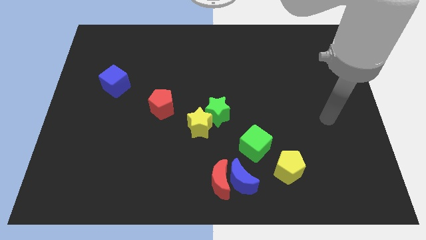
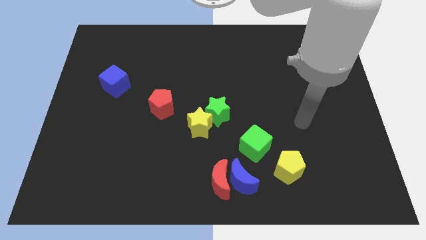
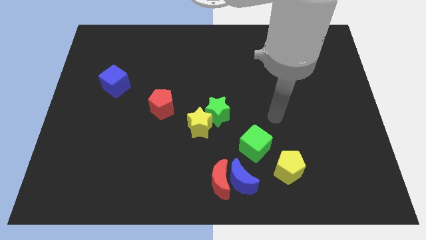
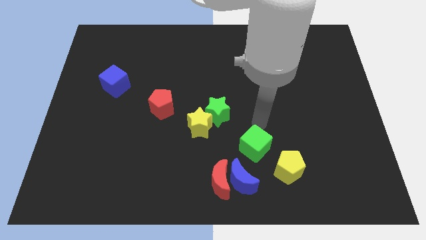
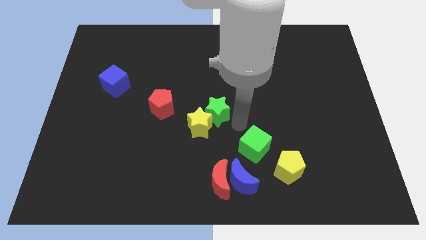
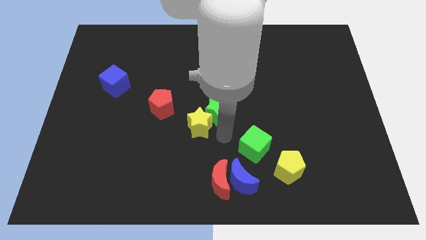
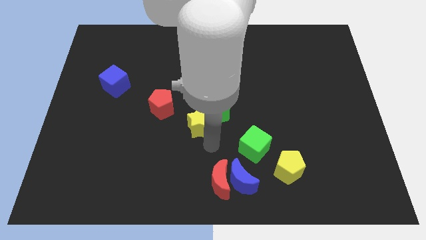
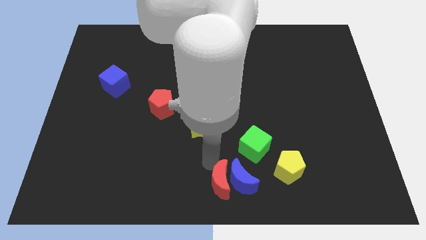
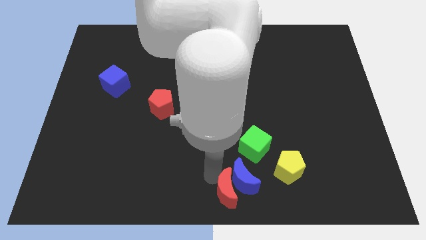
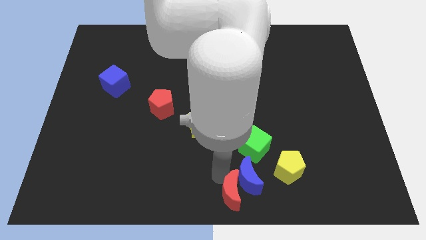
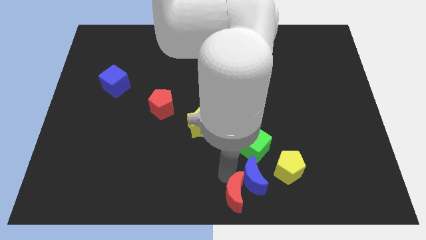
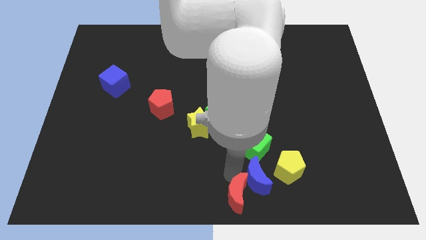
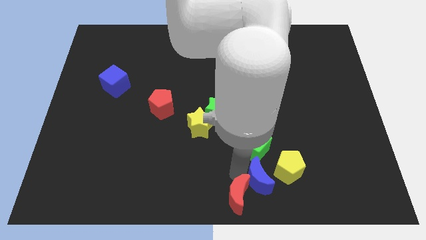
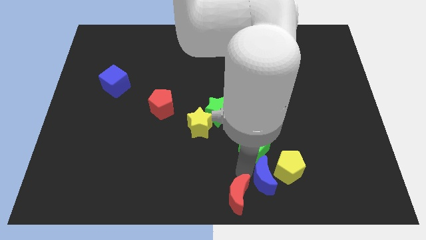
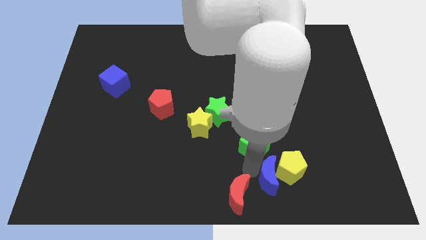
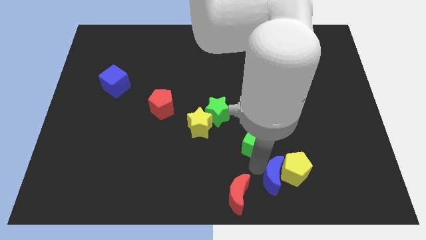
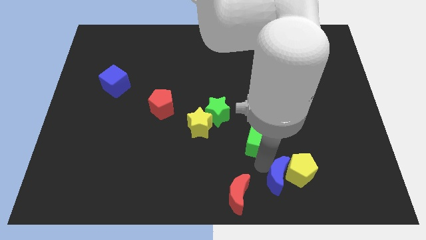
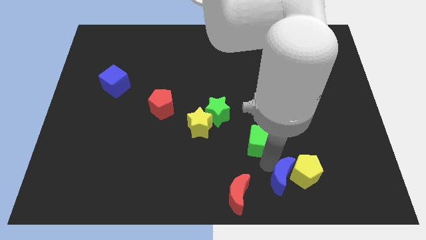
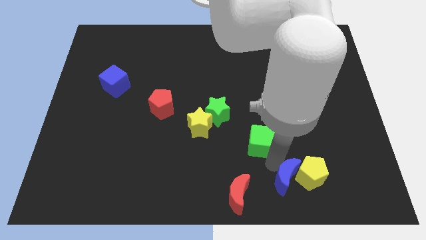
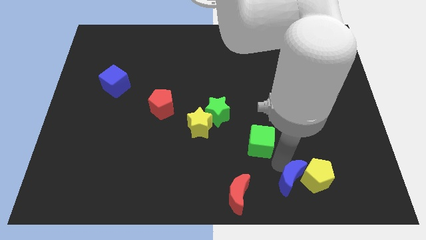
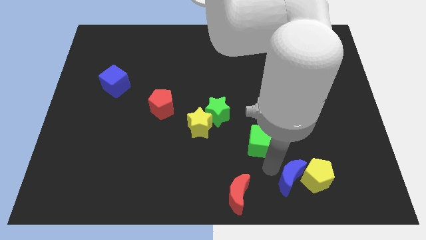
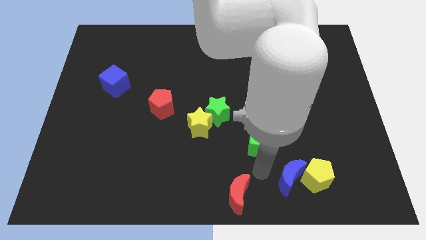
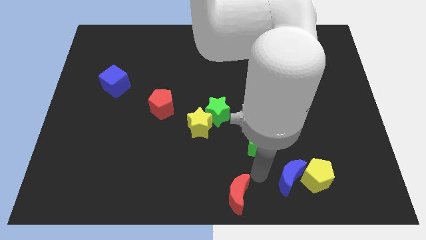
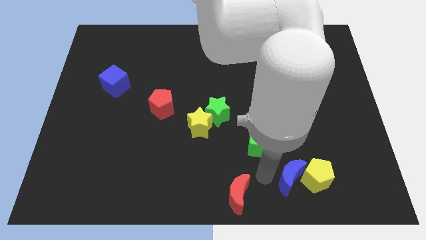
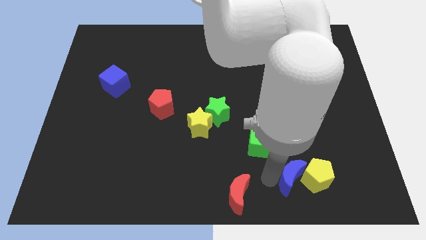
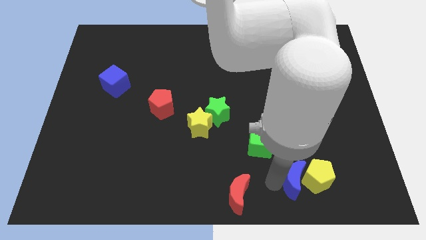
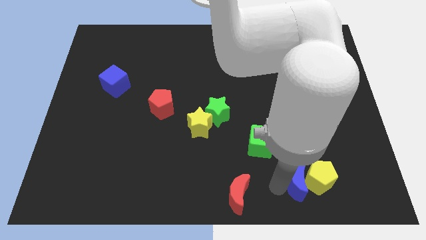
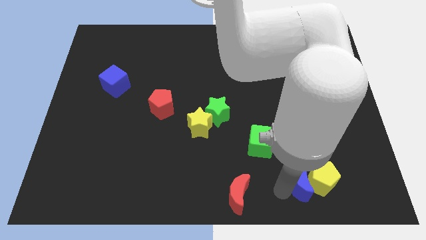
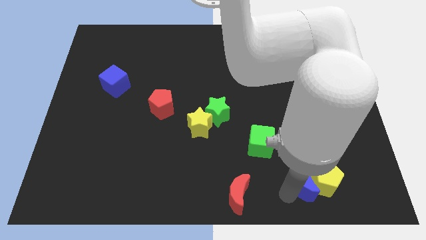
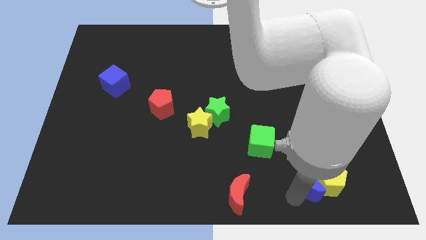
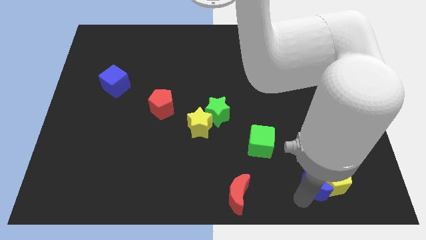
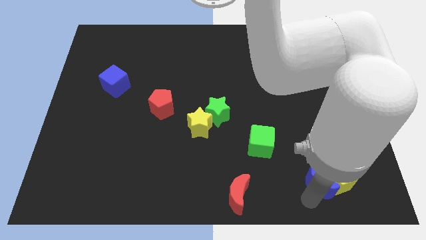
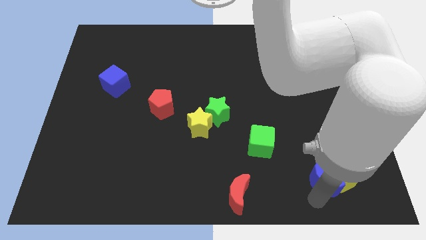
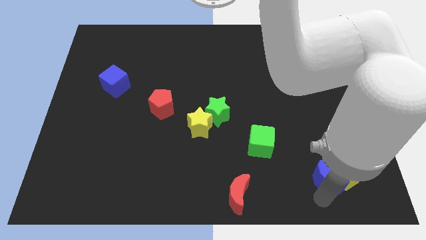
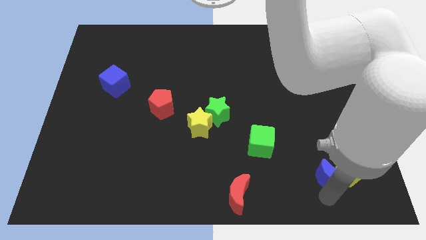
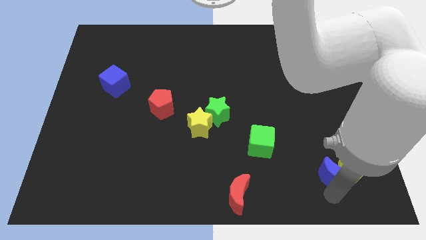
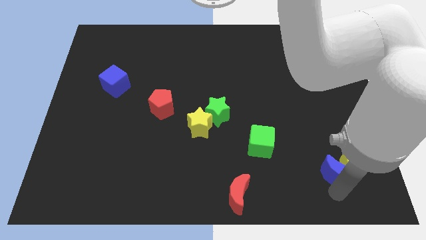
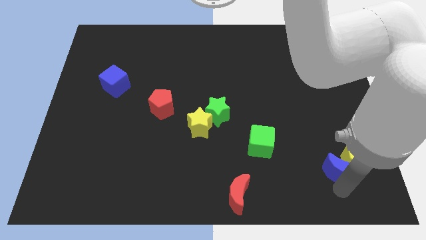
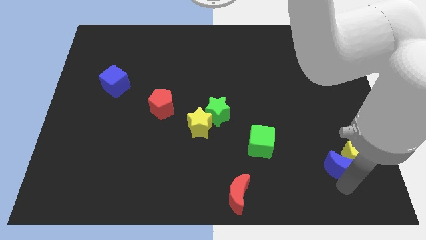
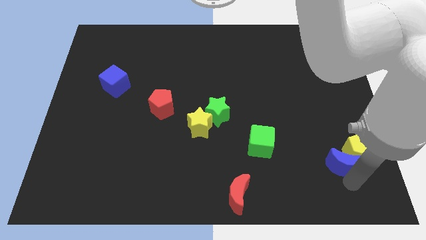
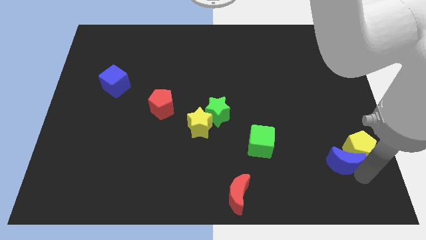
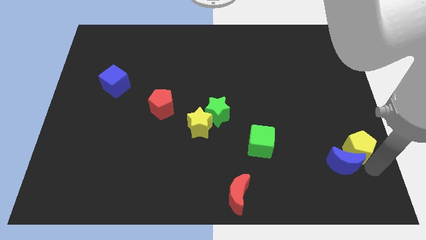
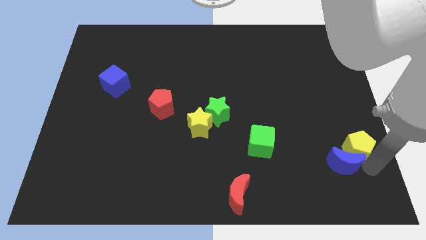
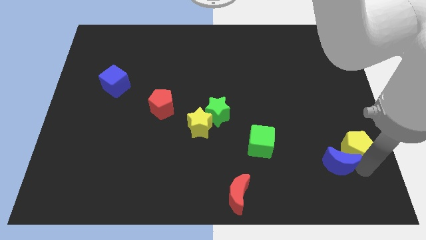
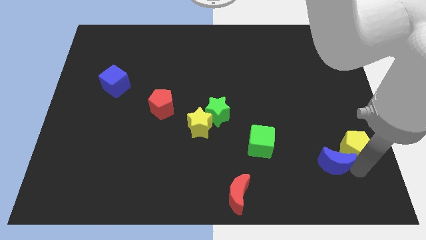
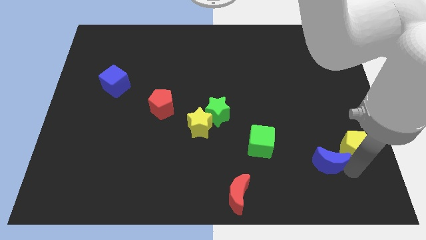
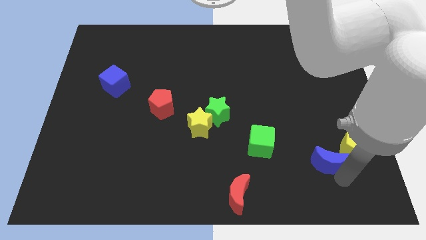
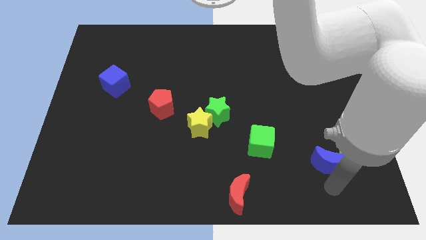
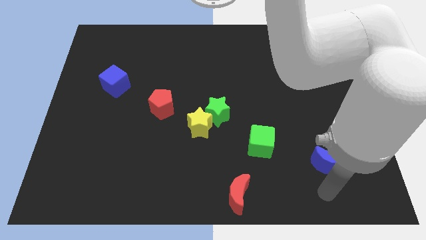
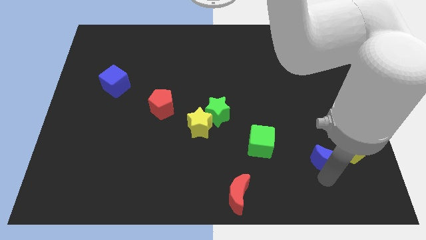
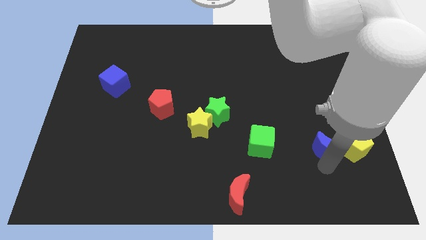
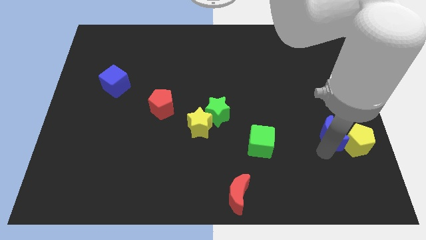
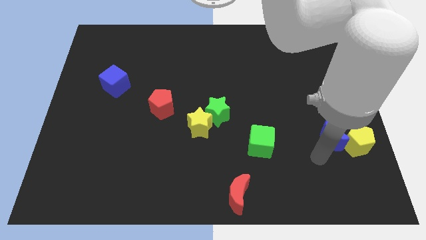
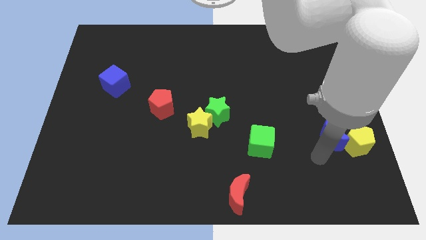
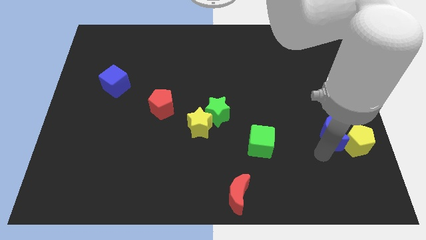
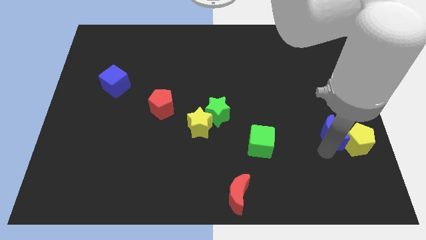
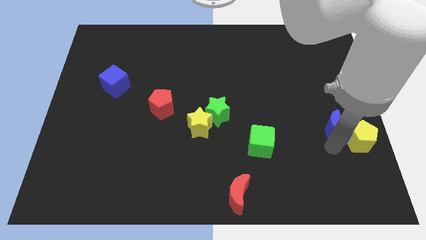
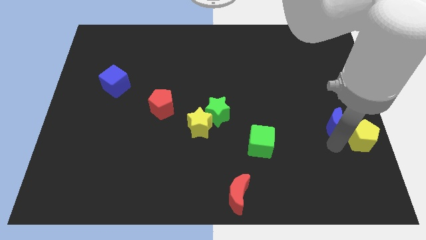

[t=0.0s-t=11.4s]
put the blue moon to the right side

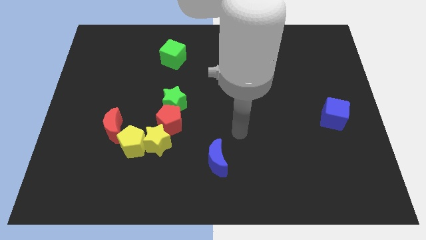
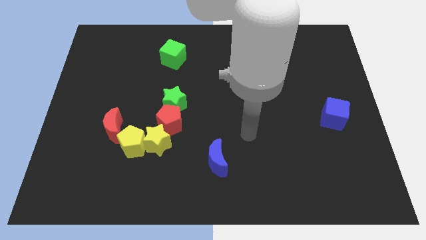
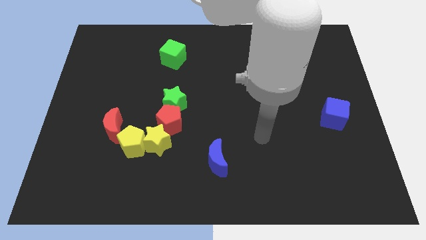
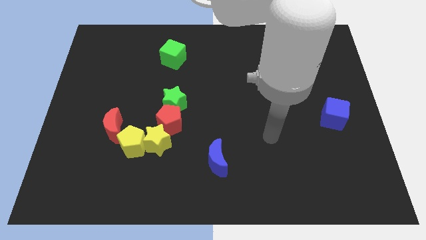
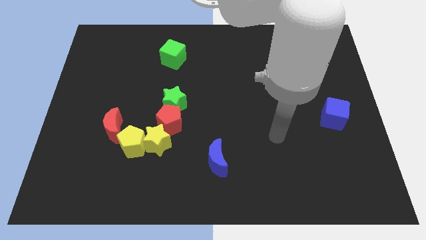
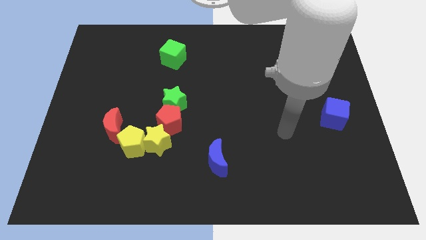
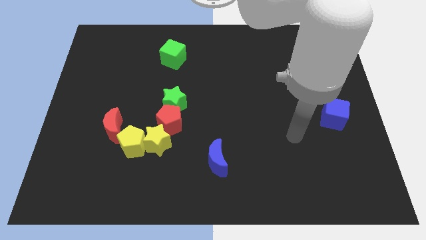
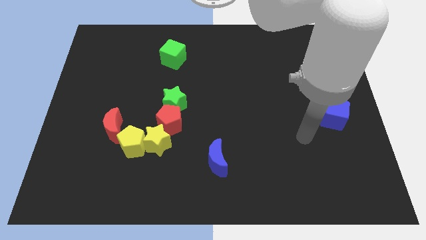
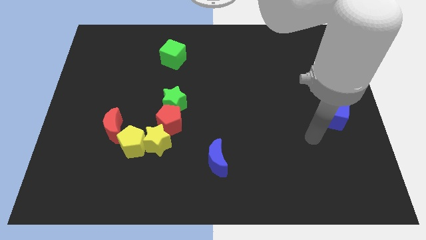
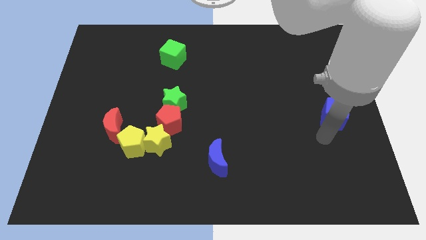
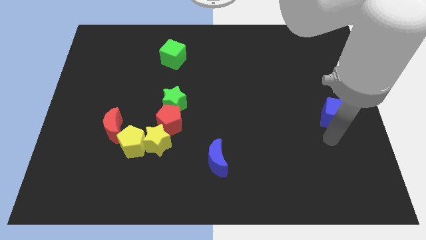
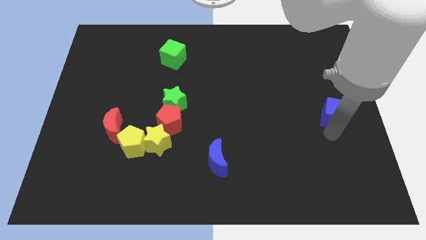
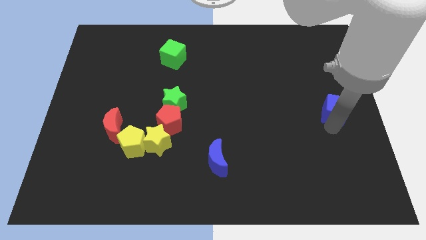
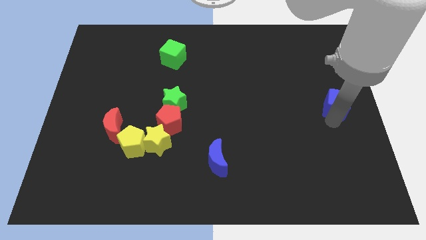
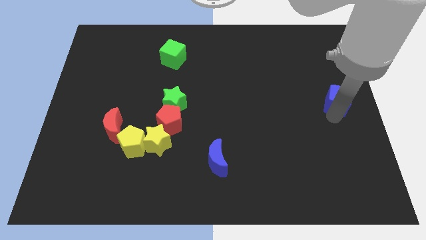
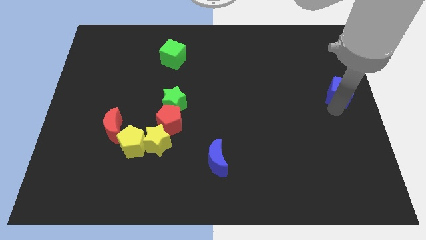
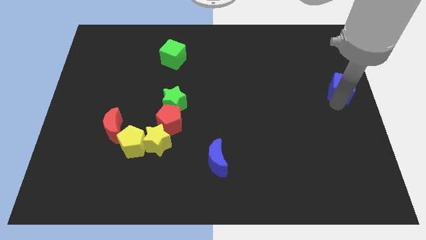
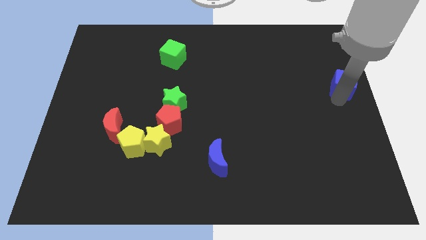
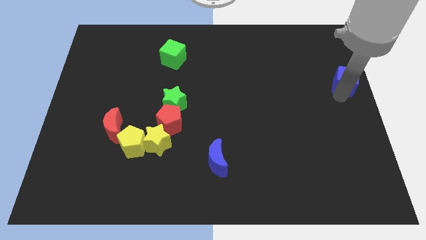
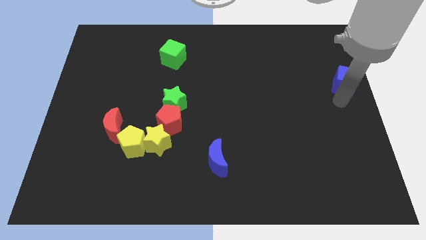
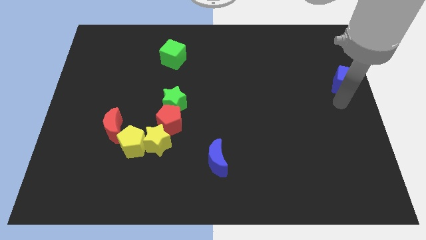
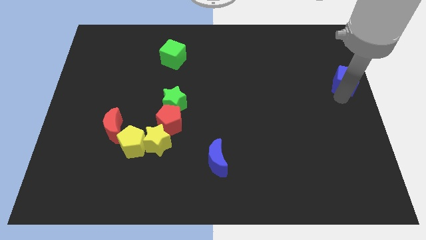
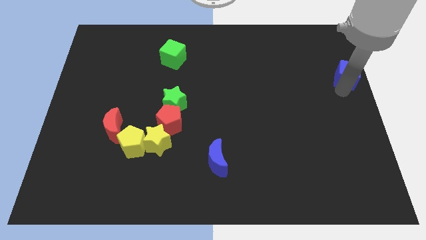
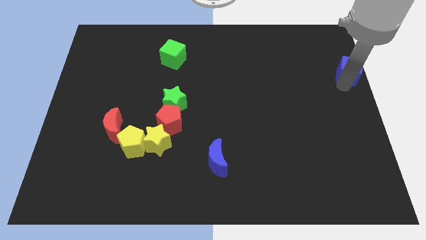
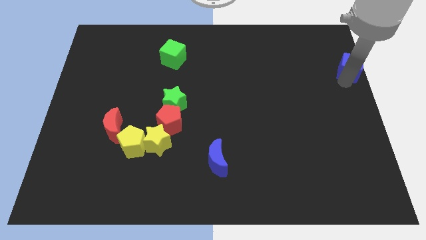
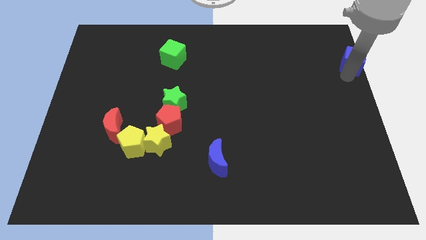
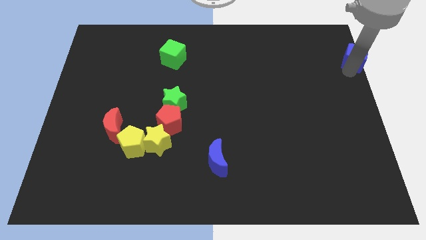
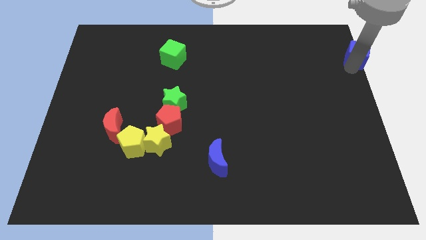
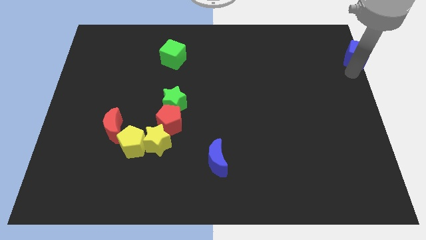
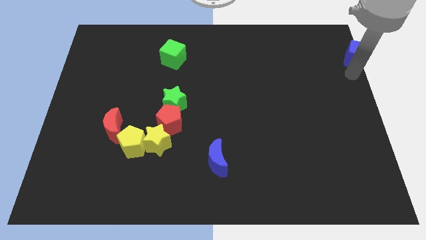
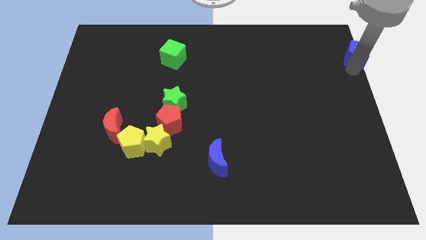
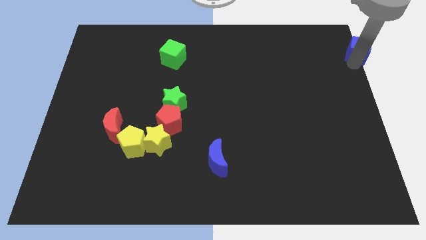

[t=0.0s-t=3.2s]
push the blue cube to the top right corner
